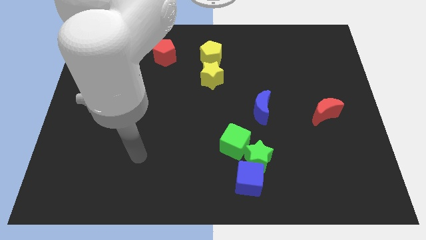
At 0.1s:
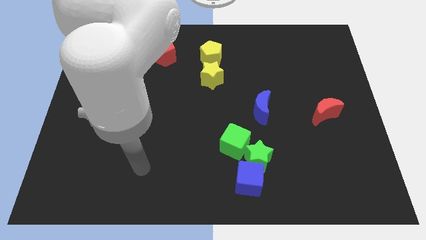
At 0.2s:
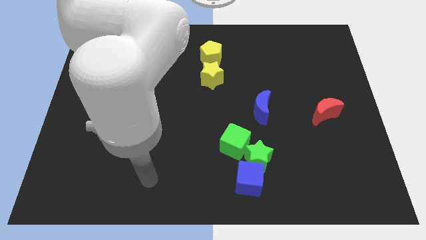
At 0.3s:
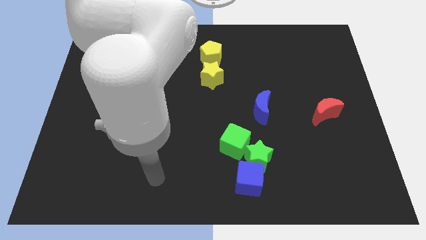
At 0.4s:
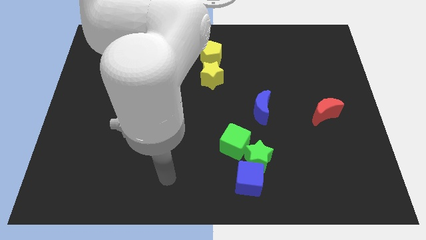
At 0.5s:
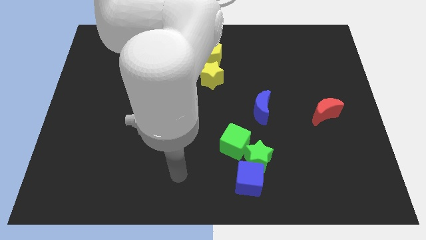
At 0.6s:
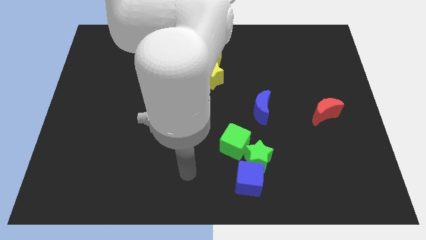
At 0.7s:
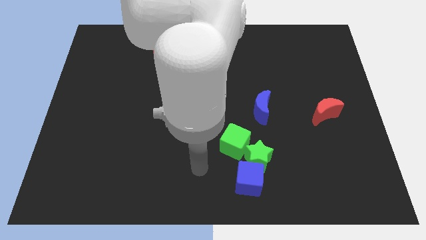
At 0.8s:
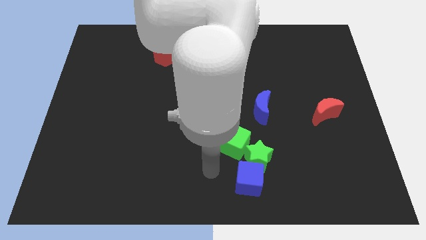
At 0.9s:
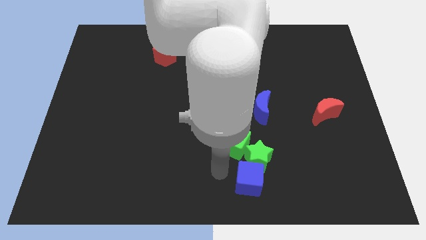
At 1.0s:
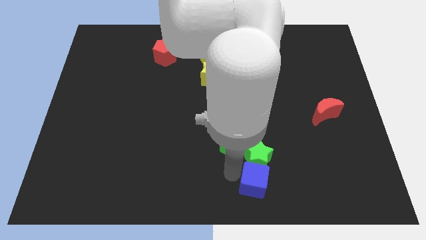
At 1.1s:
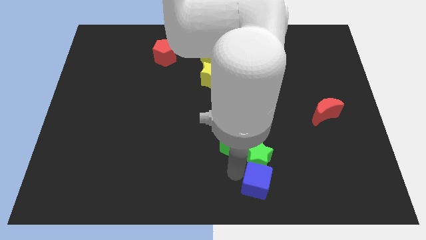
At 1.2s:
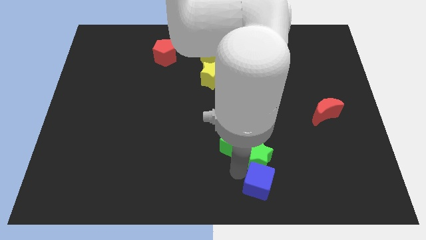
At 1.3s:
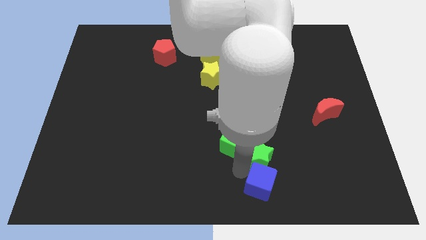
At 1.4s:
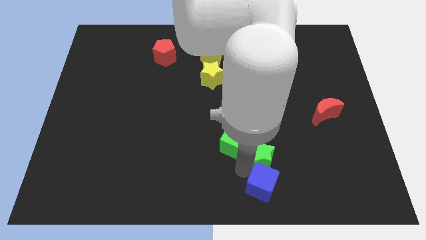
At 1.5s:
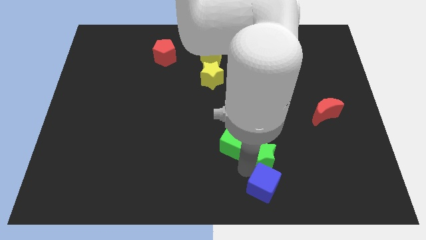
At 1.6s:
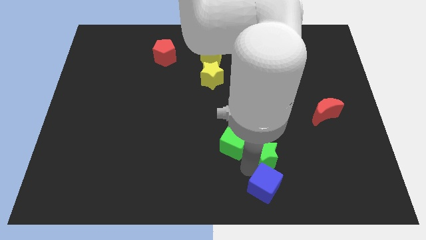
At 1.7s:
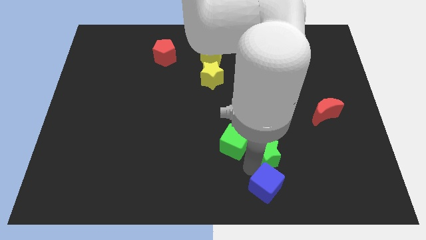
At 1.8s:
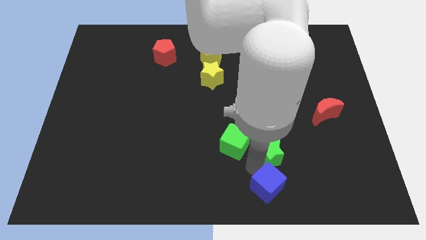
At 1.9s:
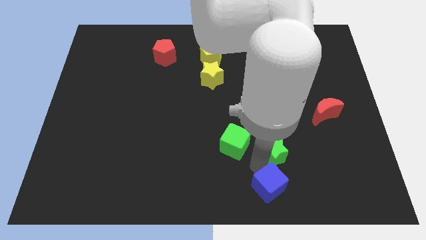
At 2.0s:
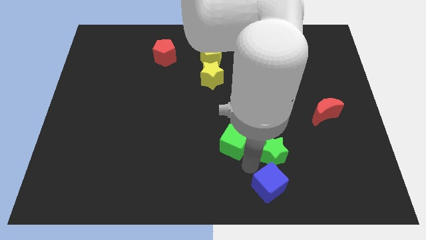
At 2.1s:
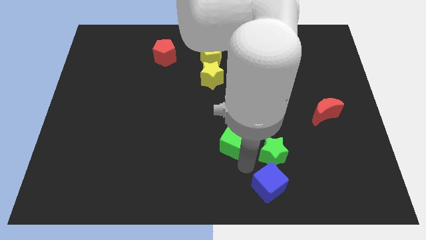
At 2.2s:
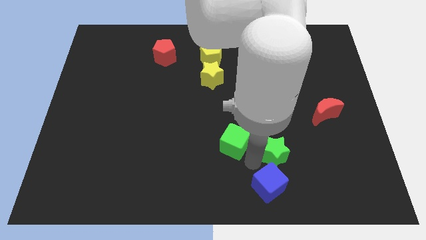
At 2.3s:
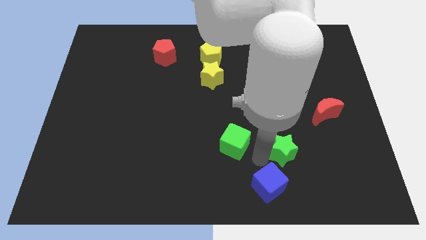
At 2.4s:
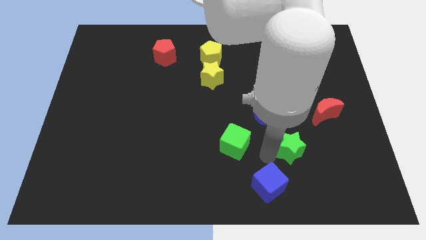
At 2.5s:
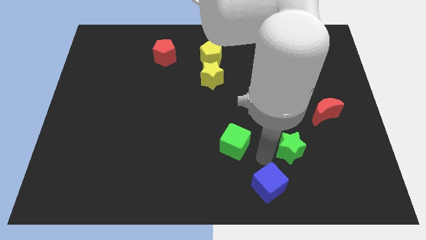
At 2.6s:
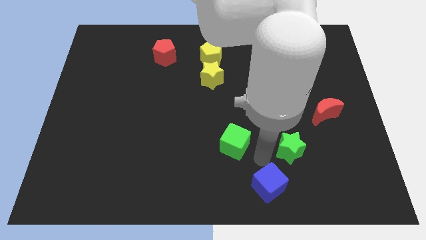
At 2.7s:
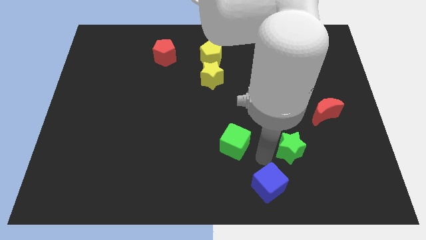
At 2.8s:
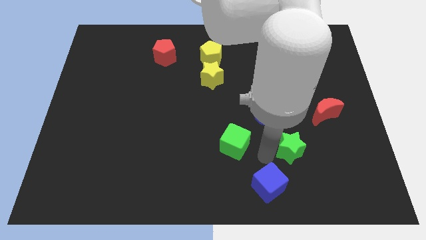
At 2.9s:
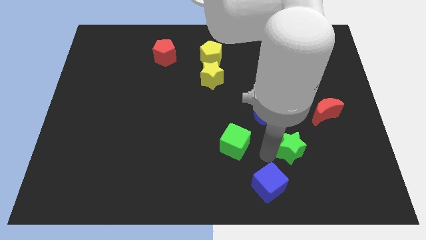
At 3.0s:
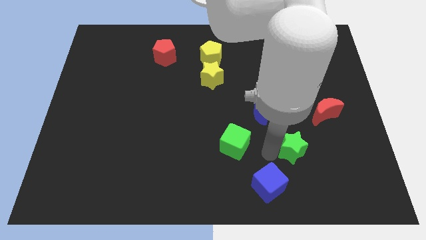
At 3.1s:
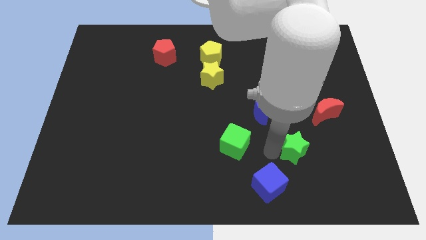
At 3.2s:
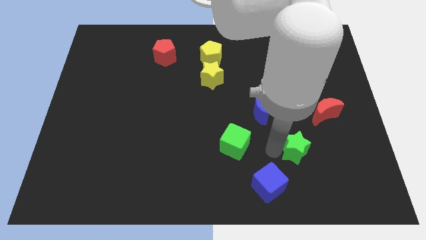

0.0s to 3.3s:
separate the green star from the blue cube and green cube

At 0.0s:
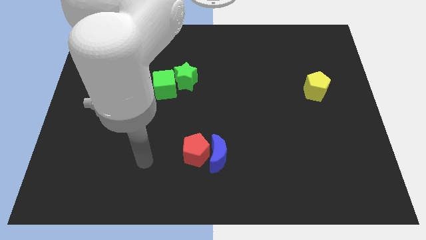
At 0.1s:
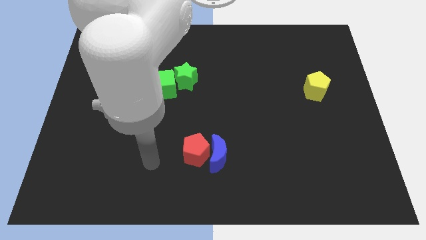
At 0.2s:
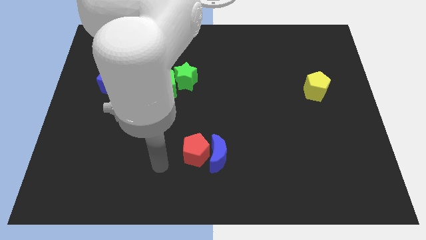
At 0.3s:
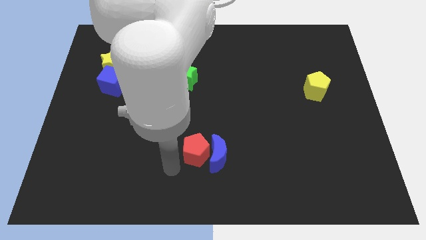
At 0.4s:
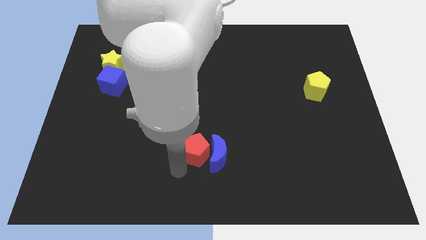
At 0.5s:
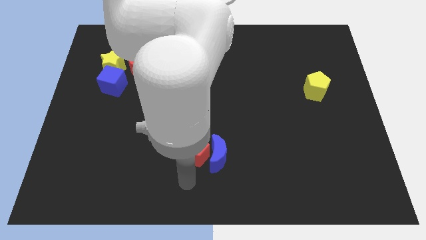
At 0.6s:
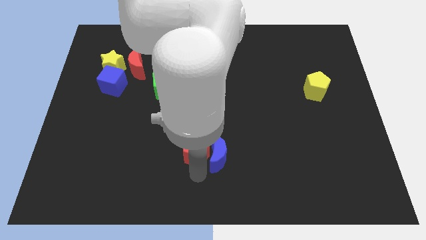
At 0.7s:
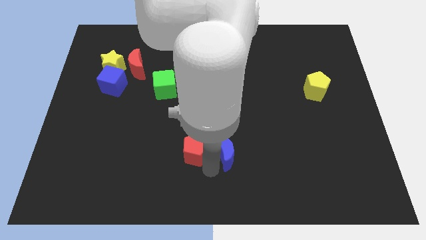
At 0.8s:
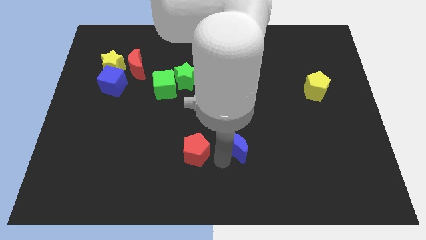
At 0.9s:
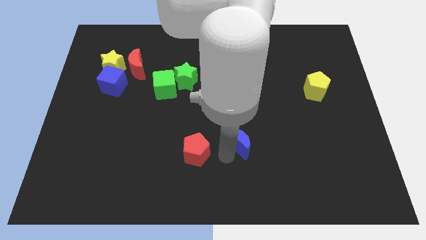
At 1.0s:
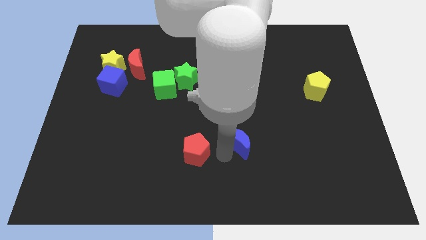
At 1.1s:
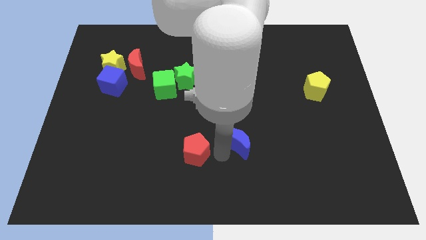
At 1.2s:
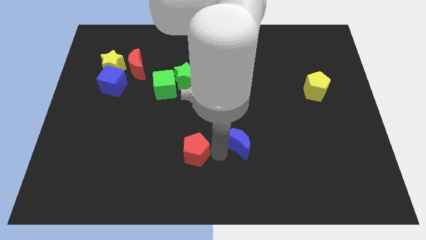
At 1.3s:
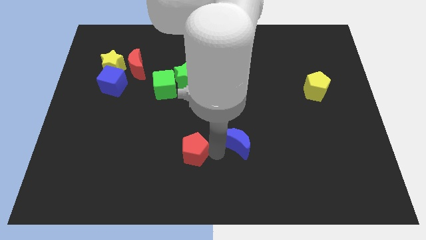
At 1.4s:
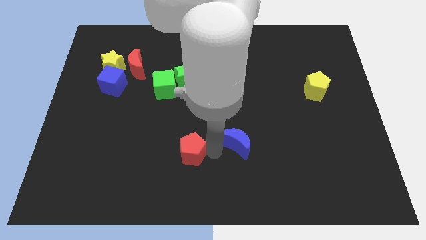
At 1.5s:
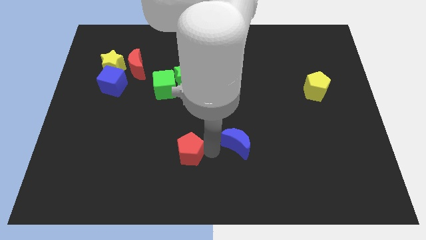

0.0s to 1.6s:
move the red pentagon away from the blue moon

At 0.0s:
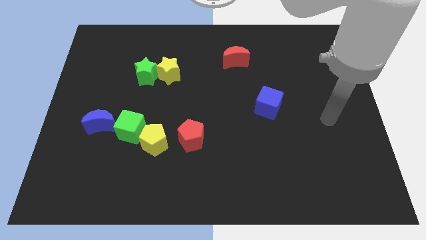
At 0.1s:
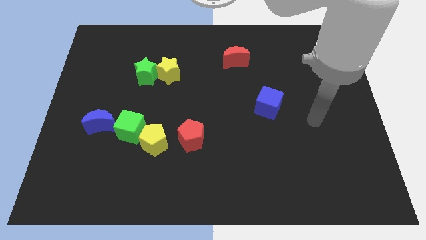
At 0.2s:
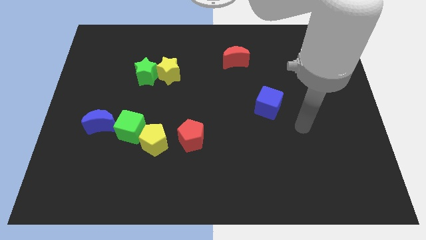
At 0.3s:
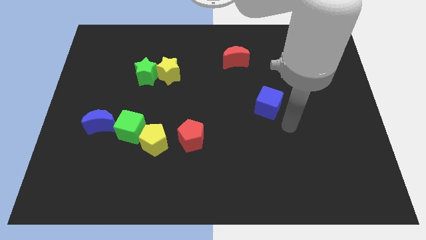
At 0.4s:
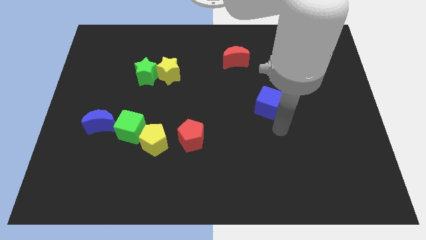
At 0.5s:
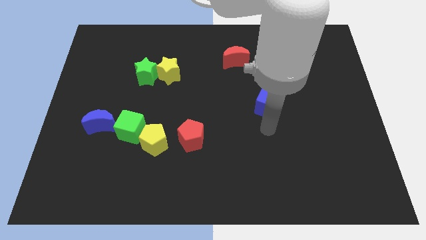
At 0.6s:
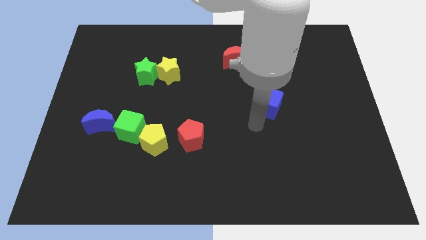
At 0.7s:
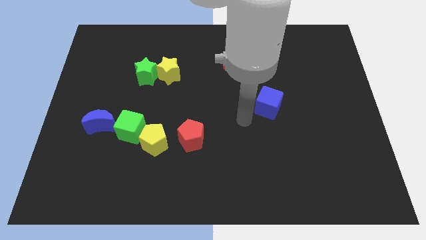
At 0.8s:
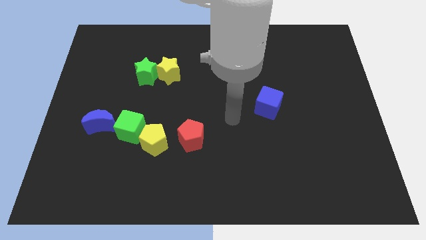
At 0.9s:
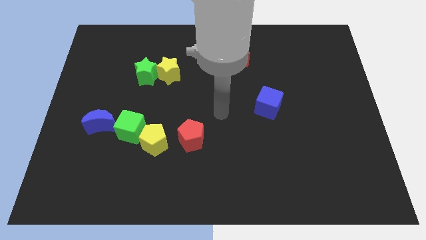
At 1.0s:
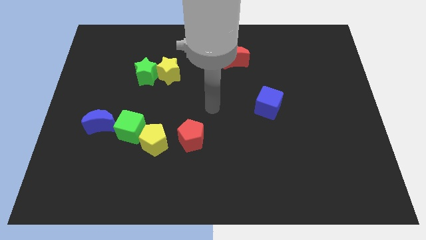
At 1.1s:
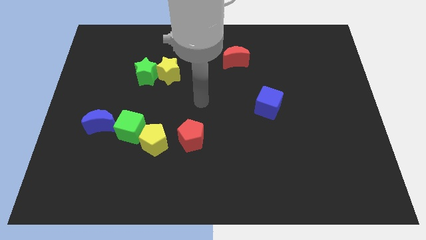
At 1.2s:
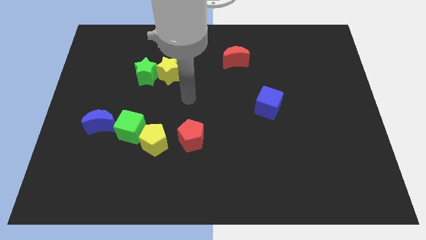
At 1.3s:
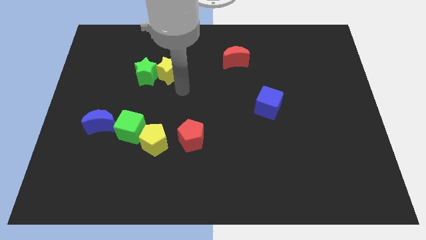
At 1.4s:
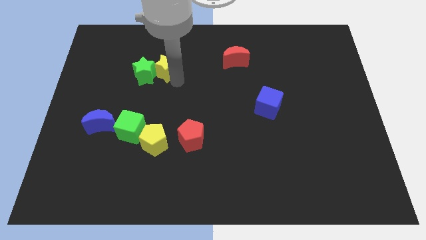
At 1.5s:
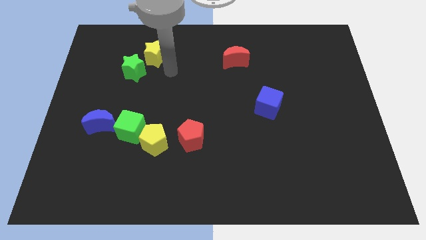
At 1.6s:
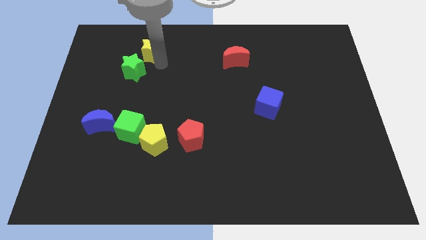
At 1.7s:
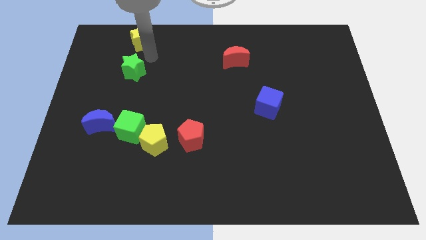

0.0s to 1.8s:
separate the green star from the yellow star

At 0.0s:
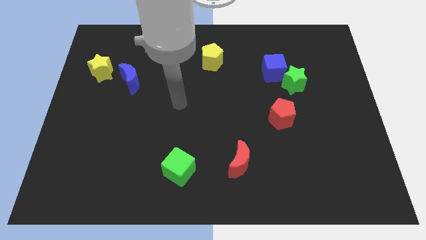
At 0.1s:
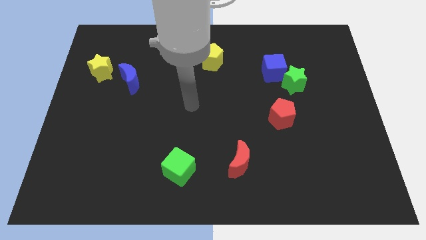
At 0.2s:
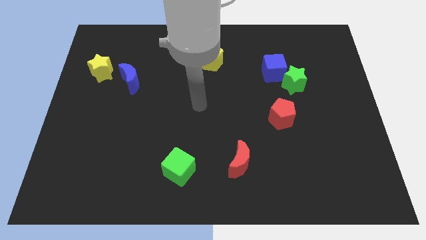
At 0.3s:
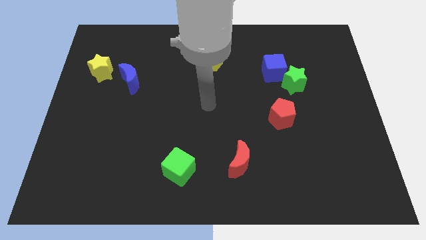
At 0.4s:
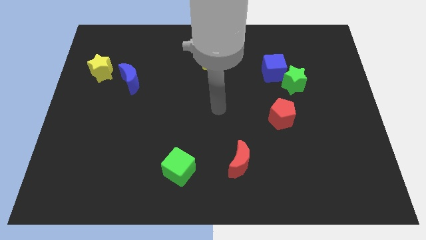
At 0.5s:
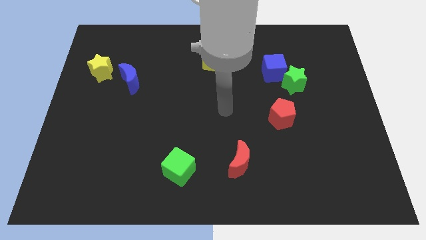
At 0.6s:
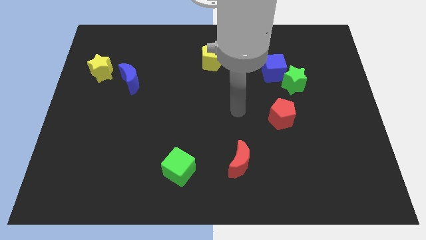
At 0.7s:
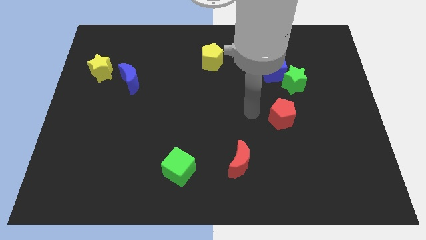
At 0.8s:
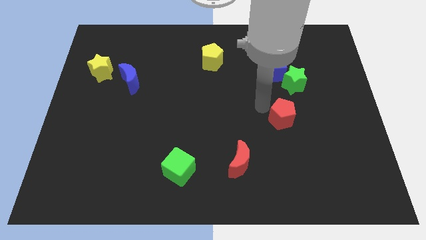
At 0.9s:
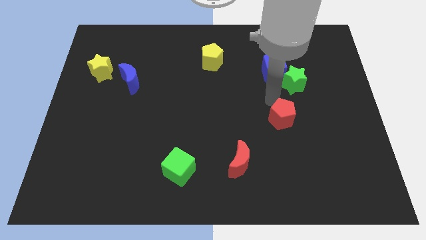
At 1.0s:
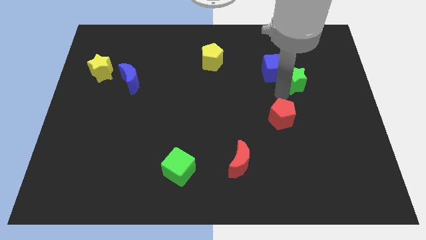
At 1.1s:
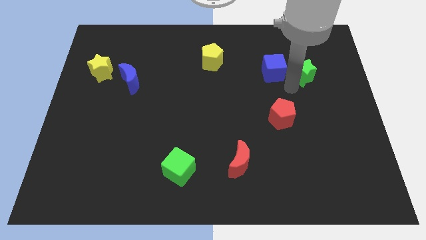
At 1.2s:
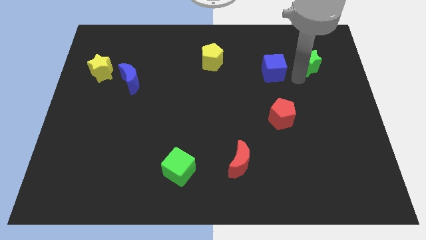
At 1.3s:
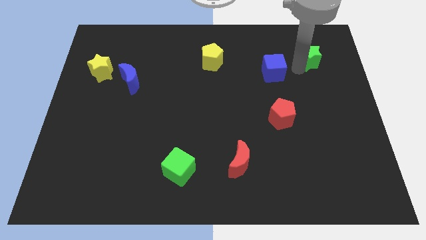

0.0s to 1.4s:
move the blue cube away from the green star

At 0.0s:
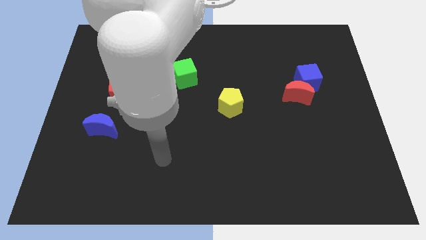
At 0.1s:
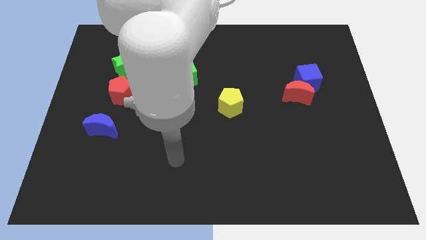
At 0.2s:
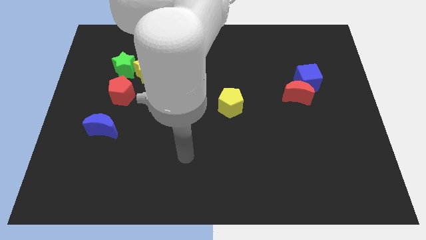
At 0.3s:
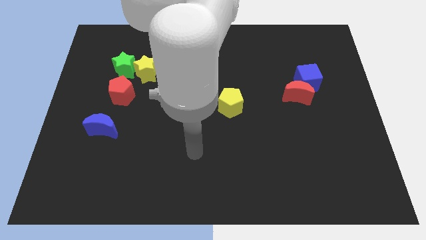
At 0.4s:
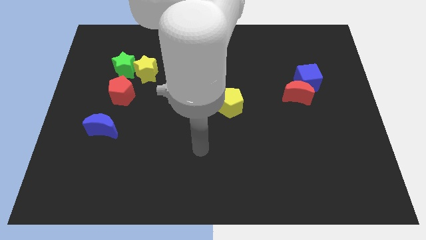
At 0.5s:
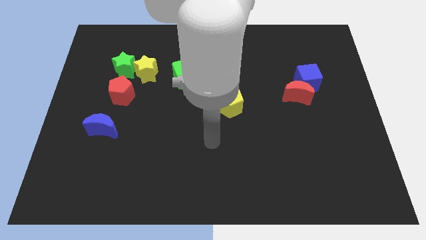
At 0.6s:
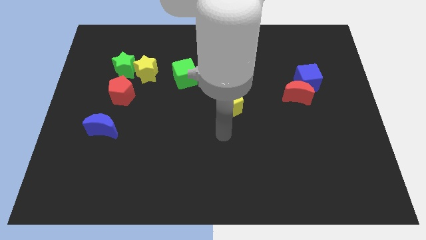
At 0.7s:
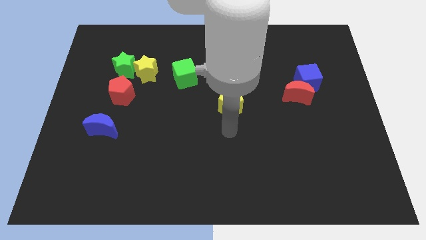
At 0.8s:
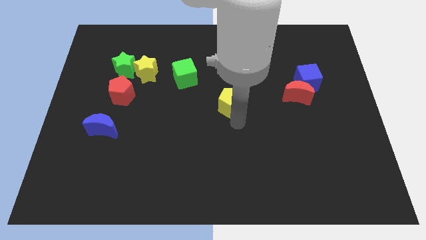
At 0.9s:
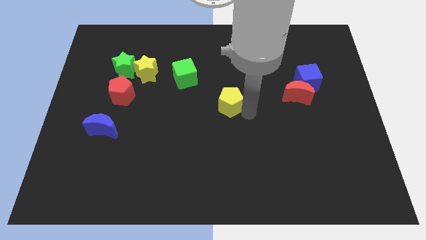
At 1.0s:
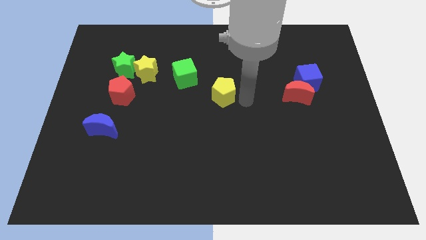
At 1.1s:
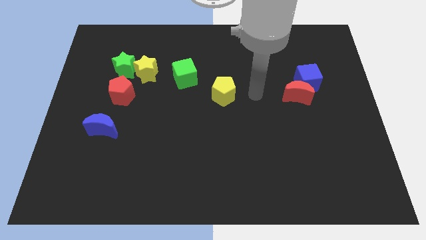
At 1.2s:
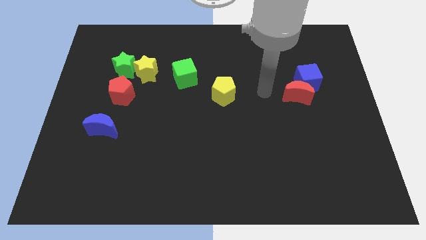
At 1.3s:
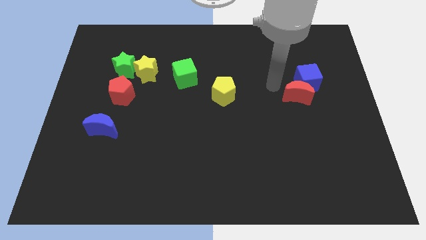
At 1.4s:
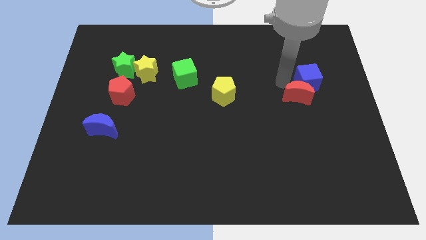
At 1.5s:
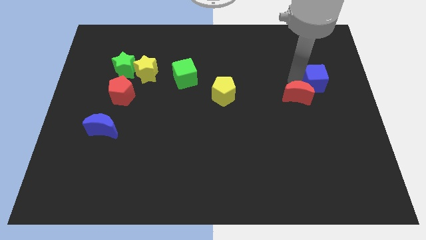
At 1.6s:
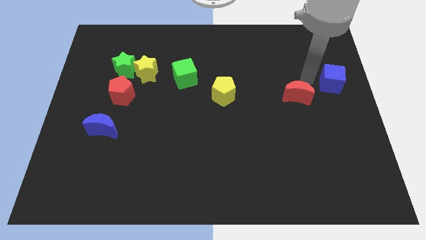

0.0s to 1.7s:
pull the red moon apart from the blue cube
